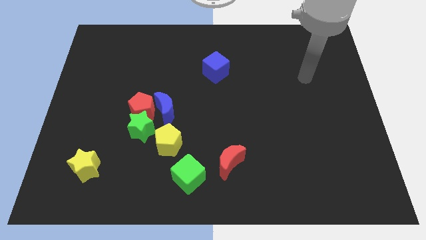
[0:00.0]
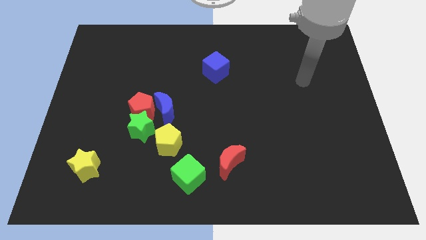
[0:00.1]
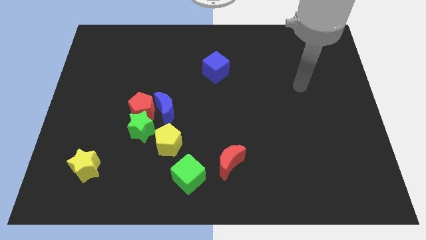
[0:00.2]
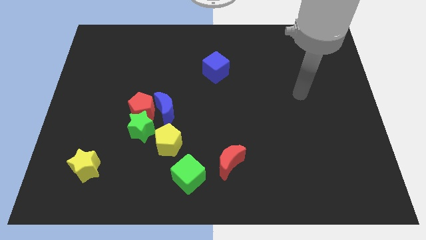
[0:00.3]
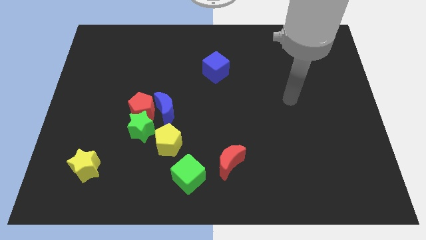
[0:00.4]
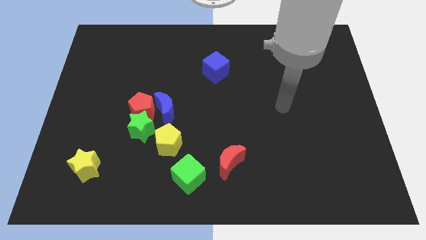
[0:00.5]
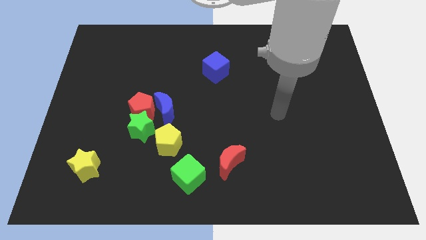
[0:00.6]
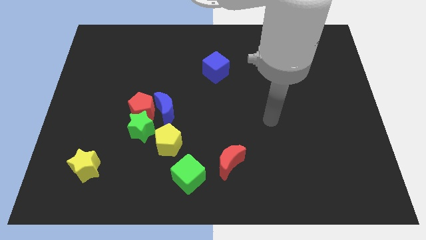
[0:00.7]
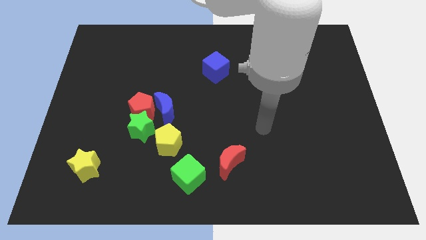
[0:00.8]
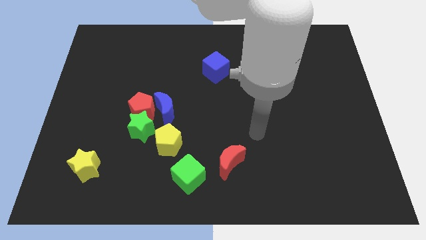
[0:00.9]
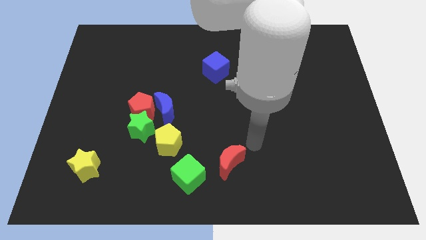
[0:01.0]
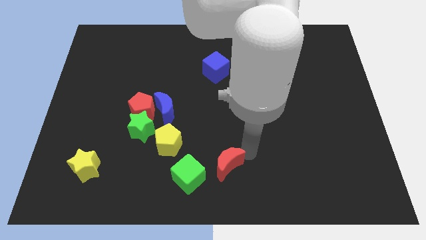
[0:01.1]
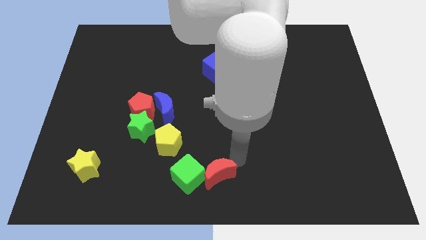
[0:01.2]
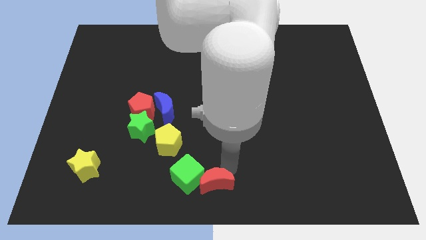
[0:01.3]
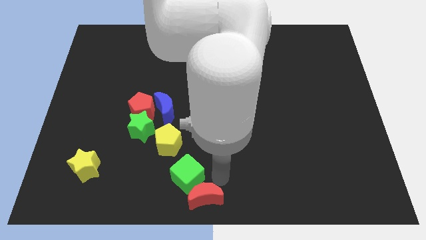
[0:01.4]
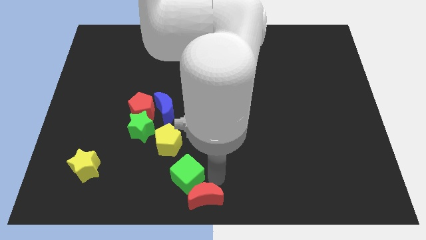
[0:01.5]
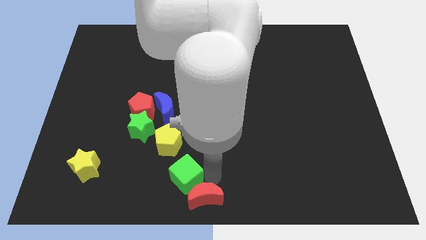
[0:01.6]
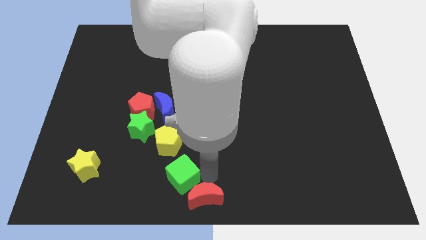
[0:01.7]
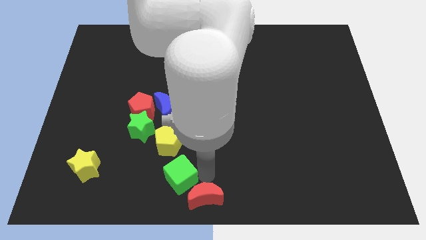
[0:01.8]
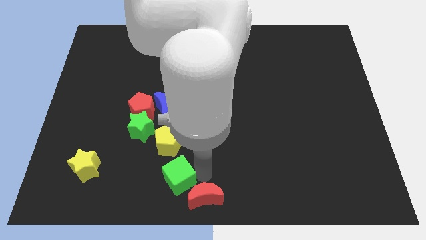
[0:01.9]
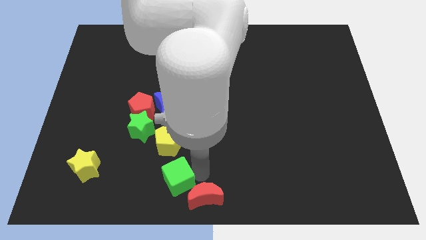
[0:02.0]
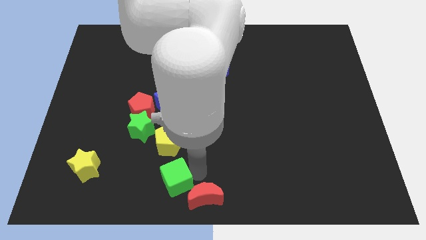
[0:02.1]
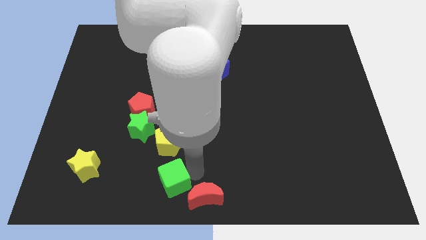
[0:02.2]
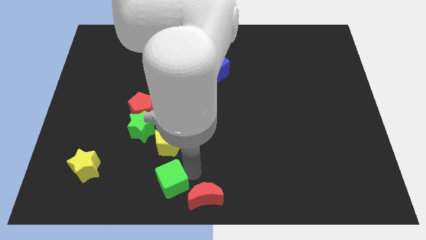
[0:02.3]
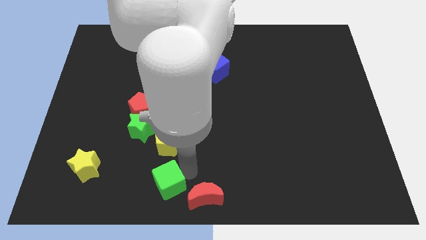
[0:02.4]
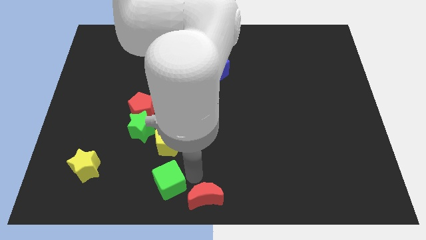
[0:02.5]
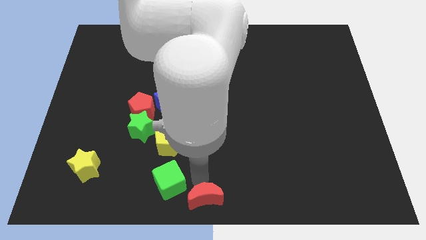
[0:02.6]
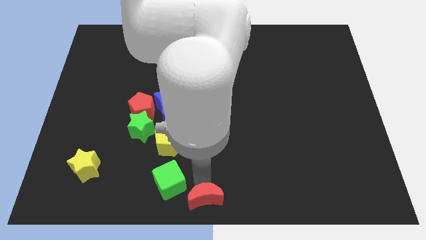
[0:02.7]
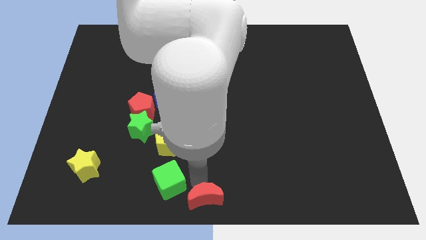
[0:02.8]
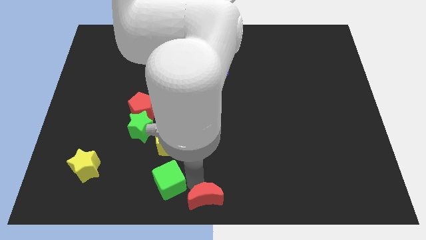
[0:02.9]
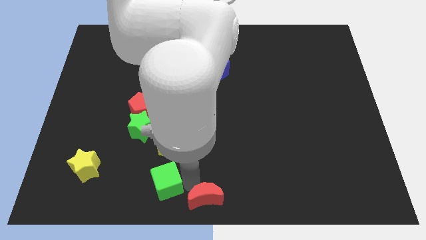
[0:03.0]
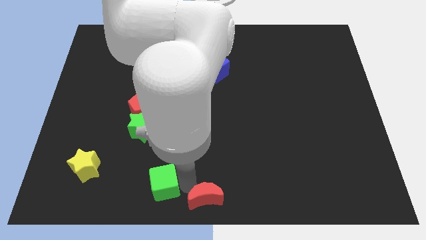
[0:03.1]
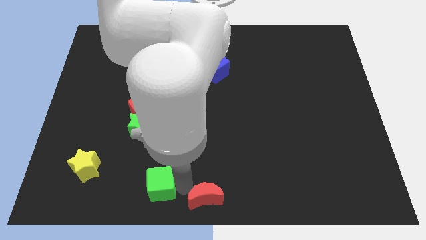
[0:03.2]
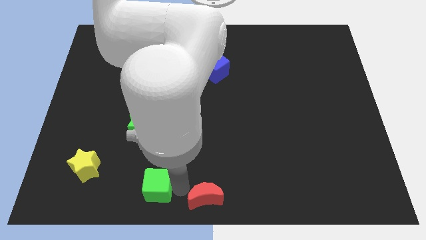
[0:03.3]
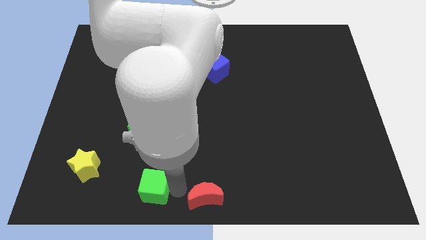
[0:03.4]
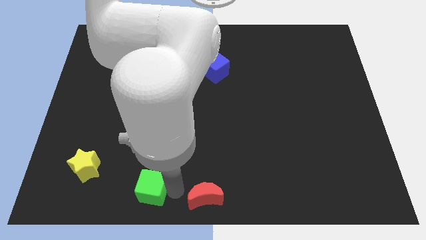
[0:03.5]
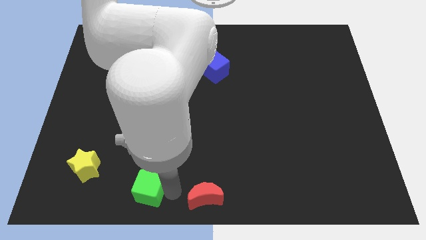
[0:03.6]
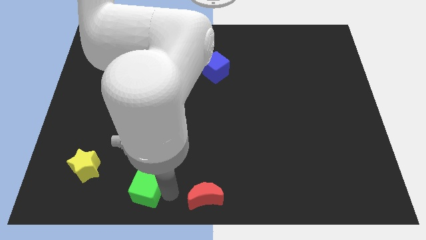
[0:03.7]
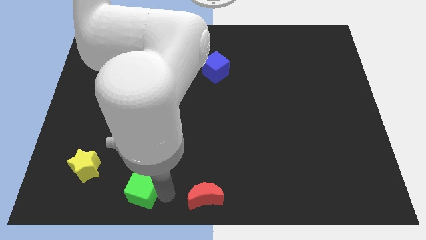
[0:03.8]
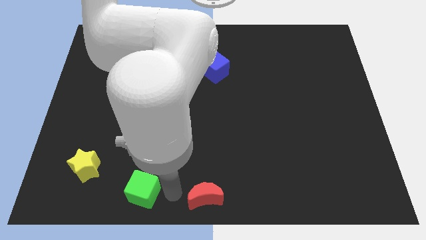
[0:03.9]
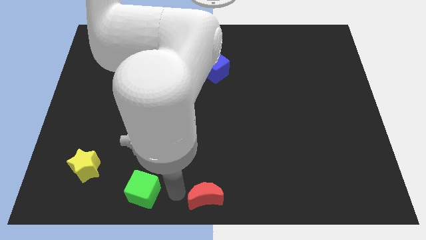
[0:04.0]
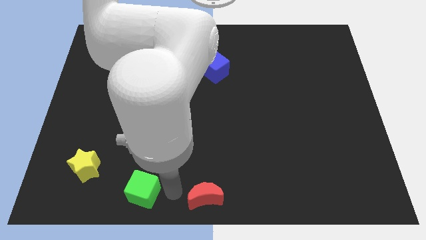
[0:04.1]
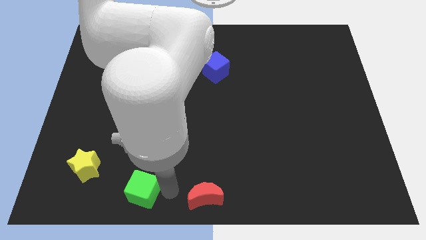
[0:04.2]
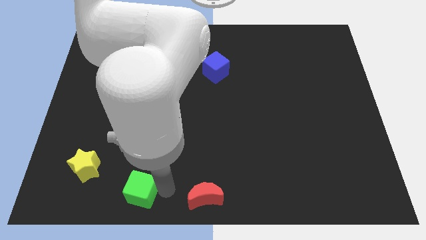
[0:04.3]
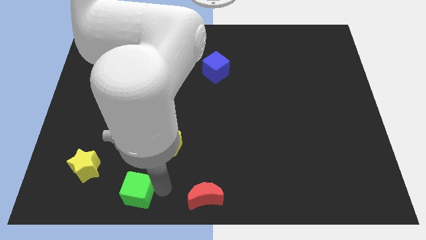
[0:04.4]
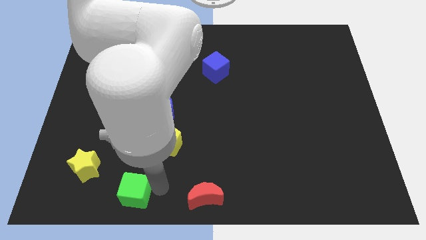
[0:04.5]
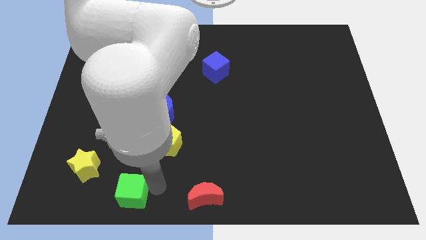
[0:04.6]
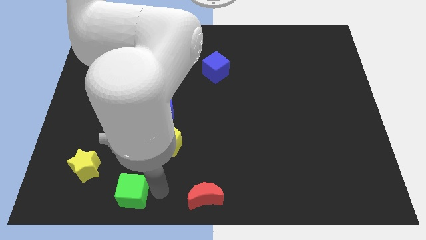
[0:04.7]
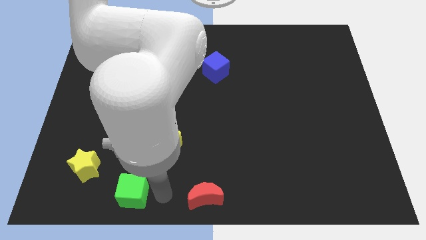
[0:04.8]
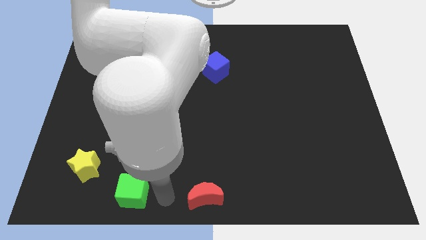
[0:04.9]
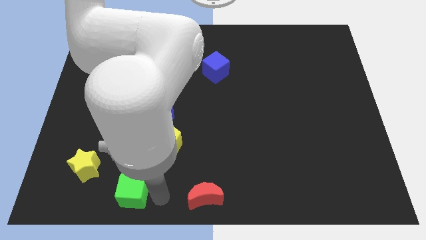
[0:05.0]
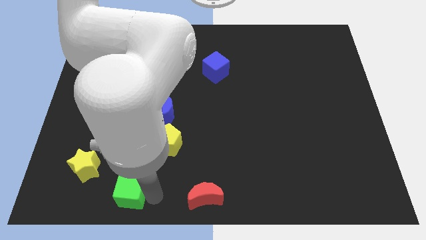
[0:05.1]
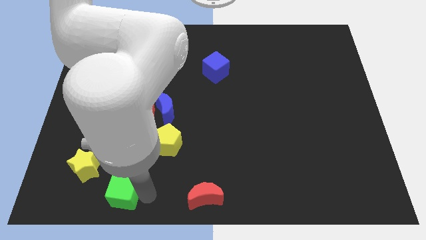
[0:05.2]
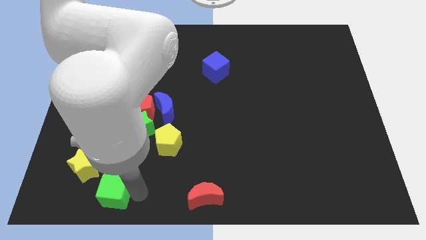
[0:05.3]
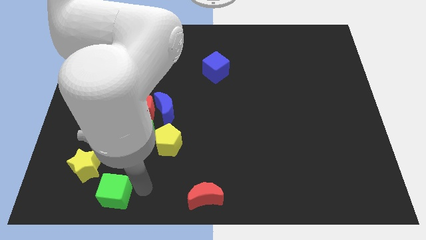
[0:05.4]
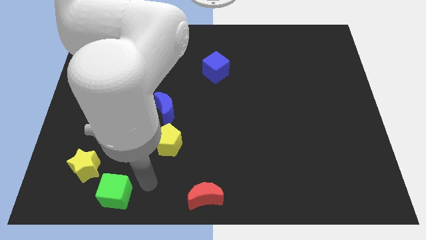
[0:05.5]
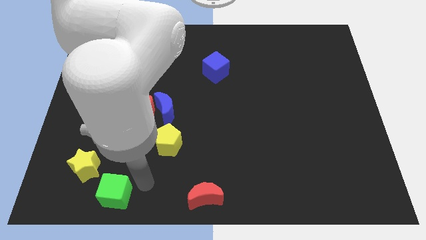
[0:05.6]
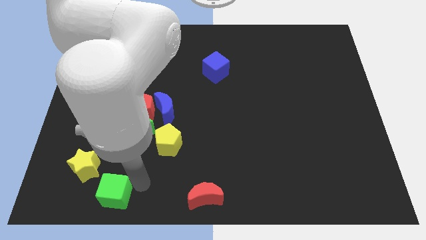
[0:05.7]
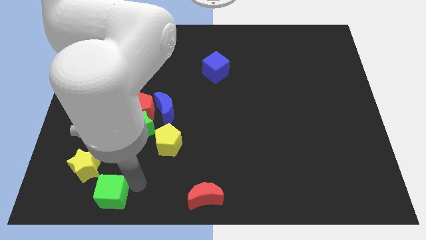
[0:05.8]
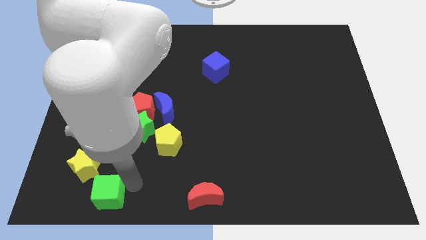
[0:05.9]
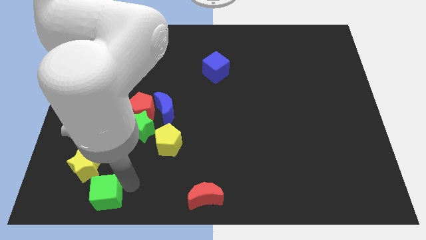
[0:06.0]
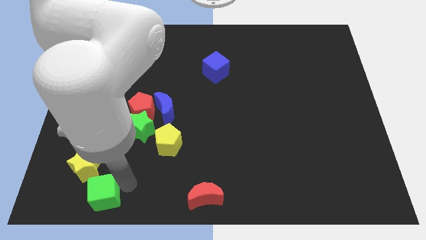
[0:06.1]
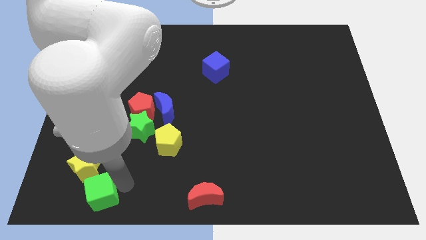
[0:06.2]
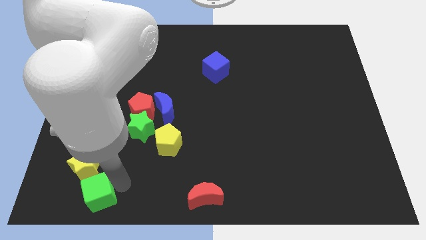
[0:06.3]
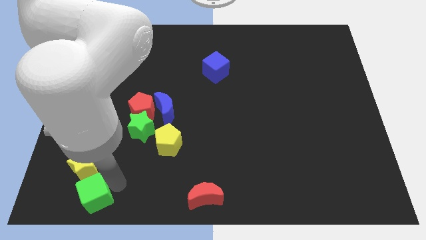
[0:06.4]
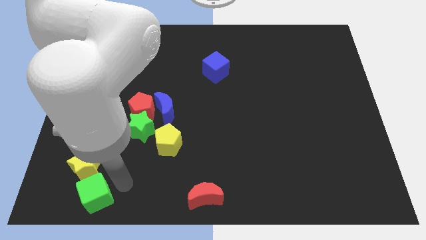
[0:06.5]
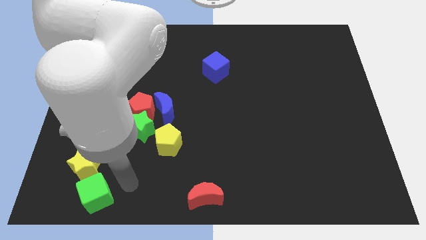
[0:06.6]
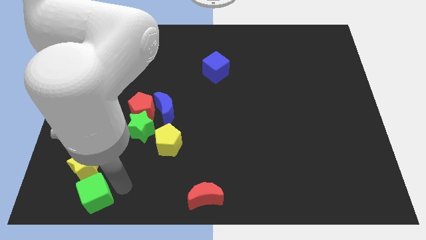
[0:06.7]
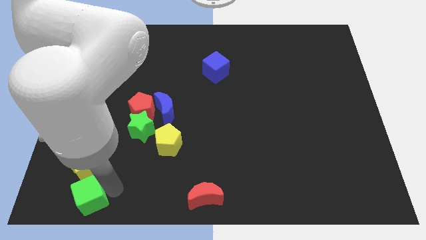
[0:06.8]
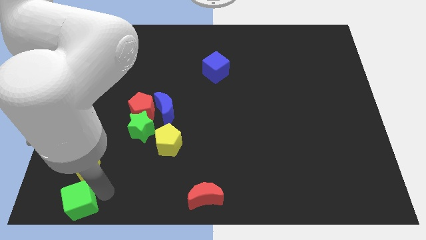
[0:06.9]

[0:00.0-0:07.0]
put the green cube to the lower left corner
